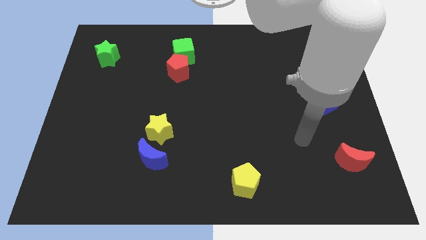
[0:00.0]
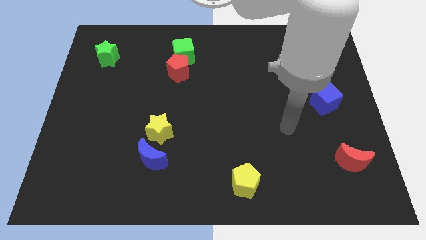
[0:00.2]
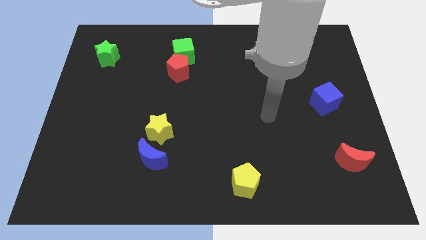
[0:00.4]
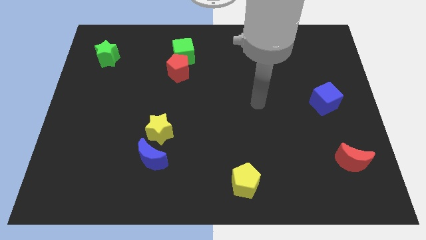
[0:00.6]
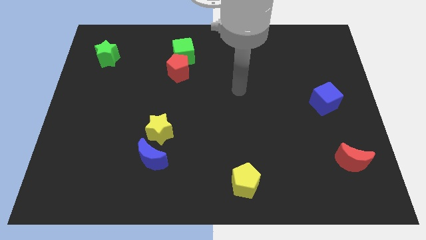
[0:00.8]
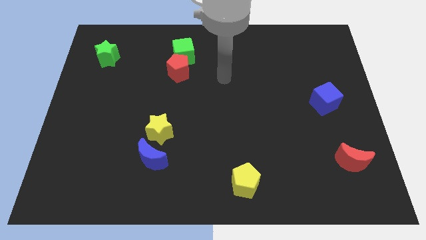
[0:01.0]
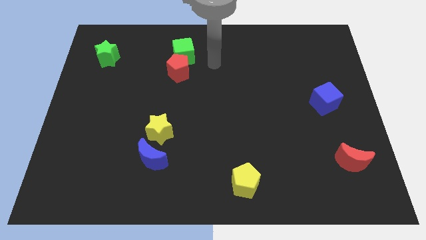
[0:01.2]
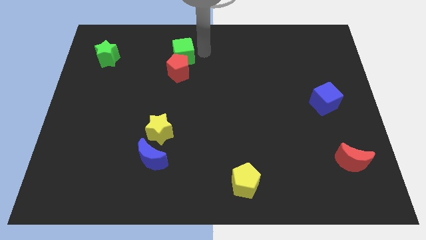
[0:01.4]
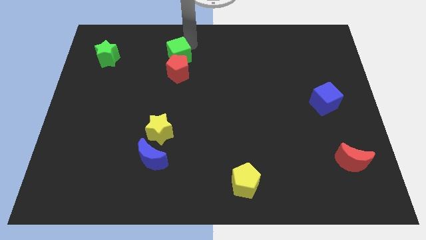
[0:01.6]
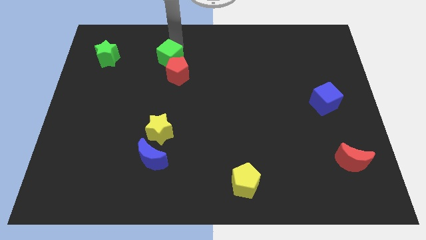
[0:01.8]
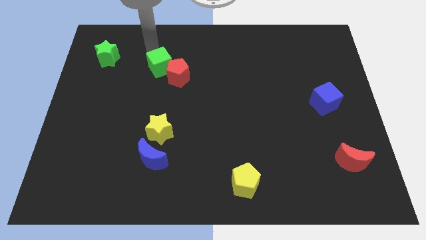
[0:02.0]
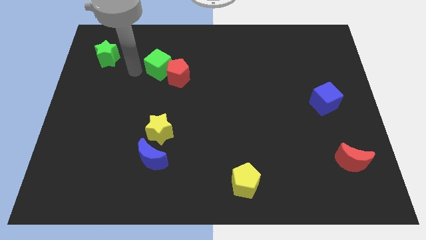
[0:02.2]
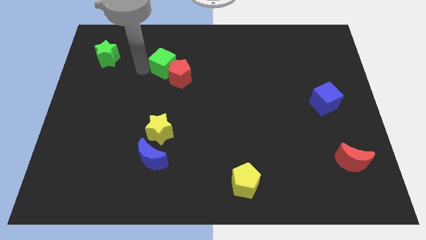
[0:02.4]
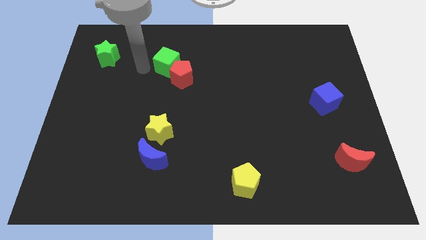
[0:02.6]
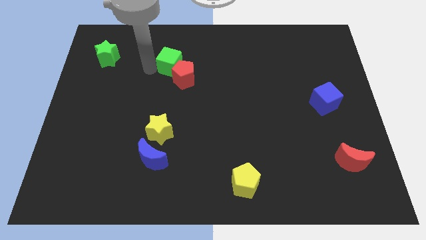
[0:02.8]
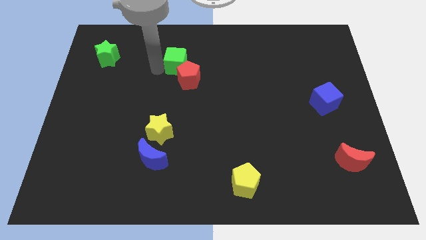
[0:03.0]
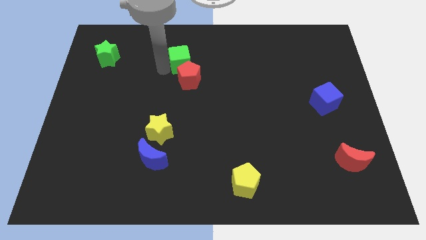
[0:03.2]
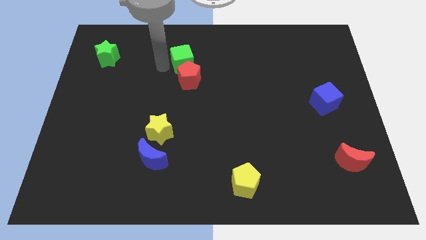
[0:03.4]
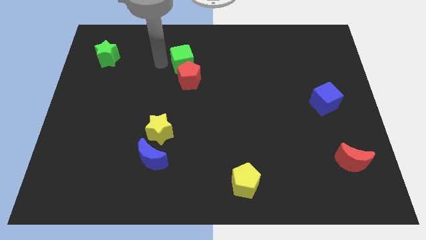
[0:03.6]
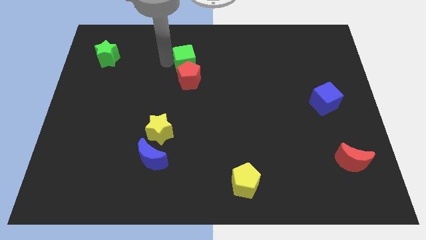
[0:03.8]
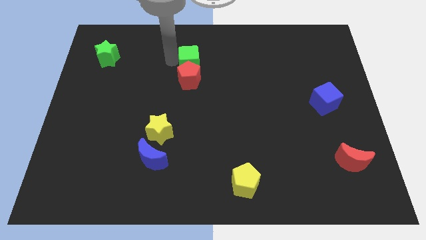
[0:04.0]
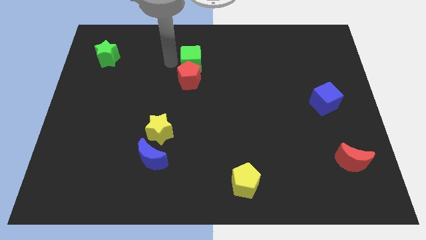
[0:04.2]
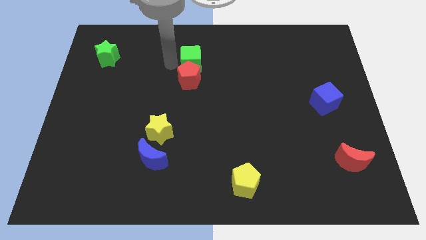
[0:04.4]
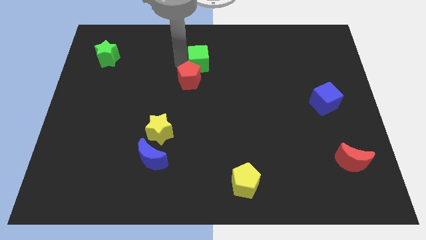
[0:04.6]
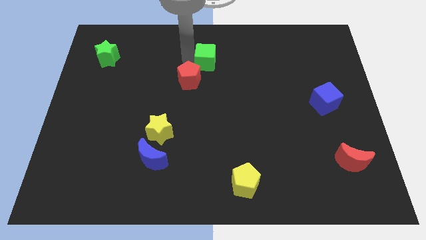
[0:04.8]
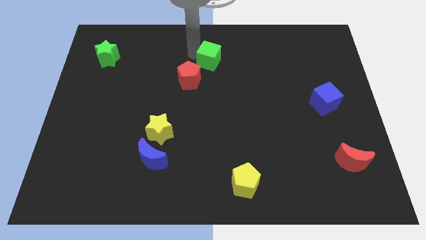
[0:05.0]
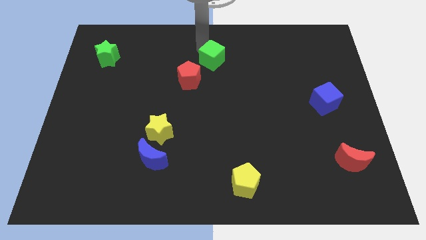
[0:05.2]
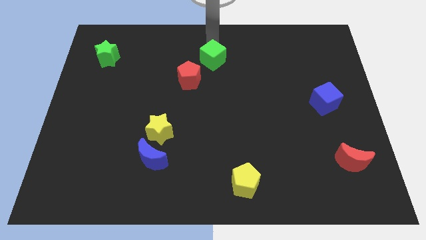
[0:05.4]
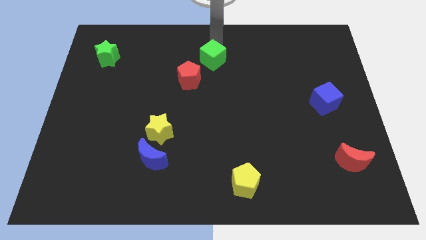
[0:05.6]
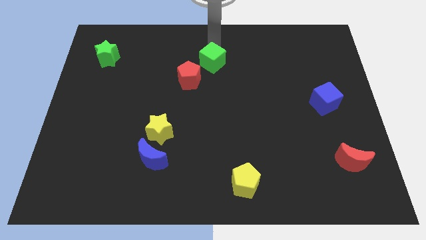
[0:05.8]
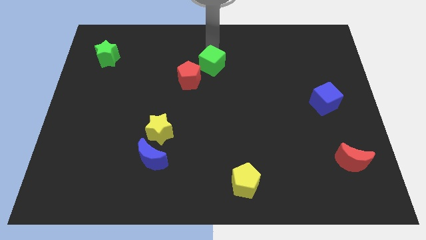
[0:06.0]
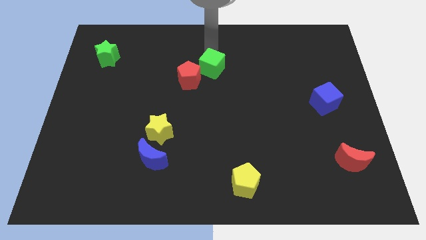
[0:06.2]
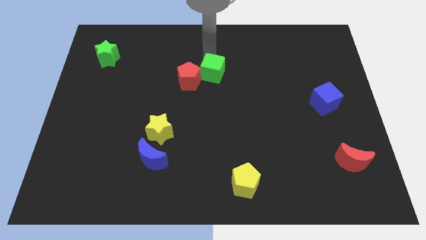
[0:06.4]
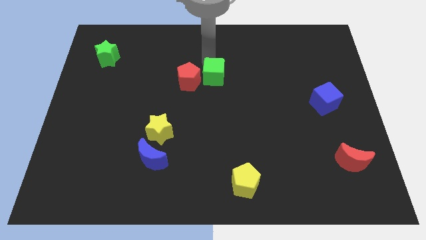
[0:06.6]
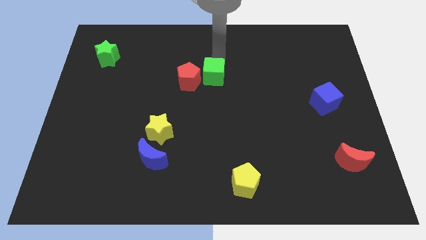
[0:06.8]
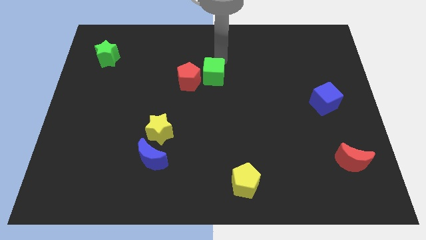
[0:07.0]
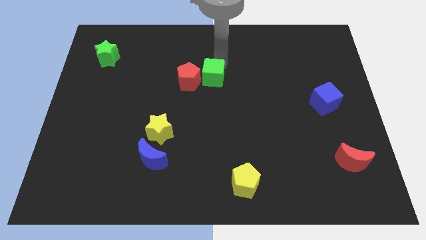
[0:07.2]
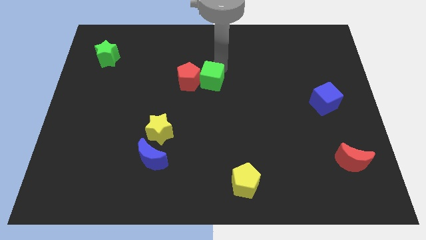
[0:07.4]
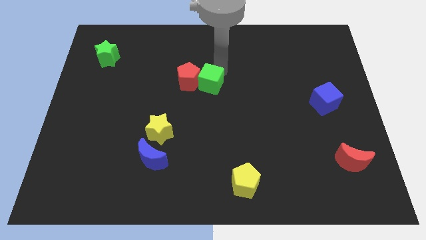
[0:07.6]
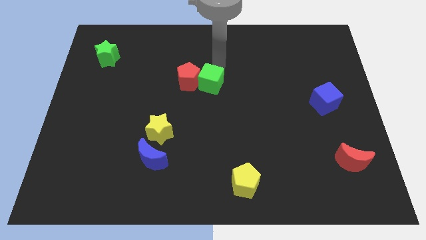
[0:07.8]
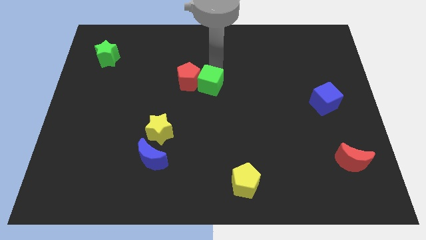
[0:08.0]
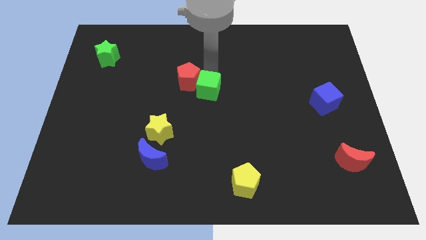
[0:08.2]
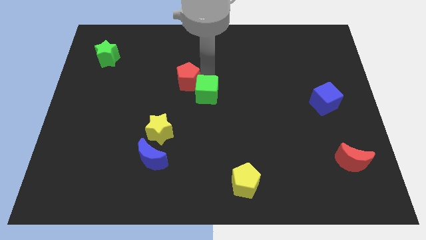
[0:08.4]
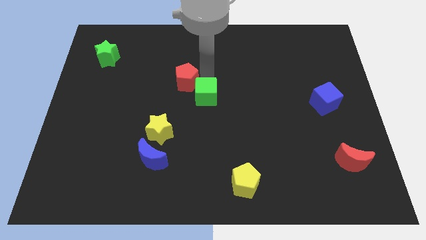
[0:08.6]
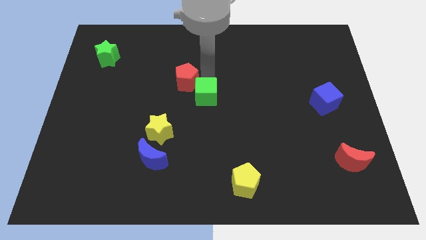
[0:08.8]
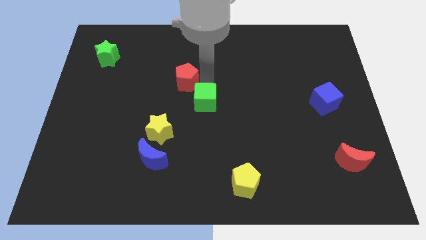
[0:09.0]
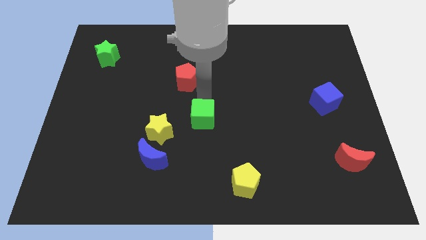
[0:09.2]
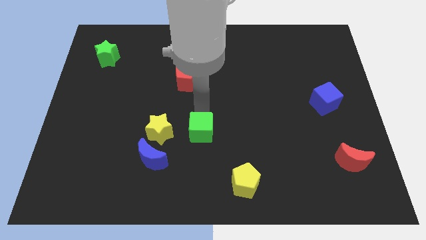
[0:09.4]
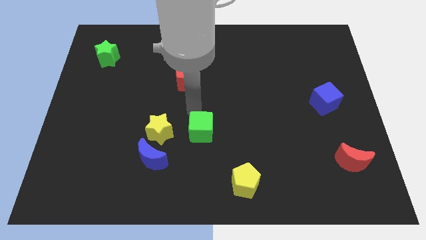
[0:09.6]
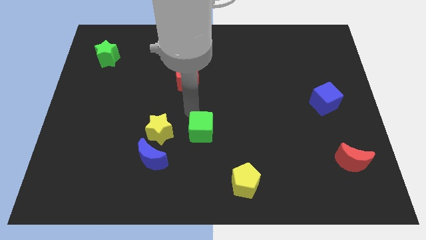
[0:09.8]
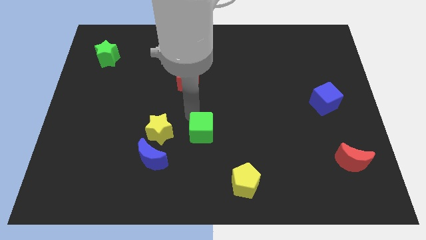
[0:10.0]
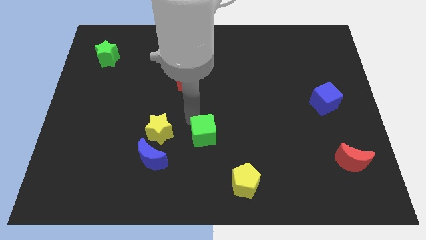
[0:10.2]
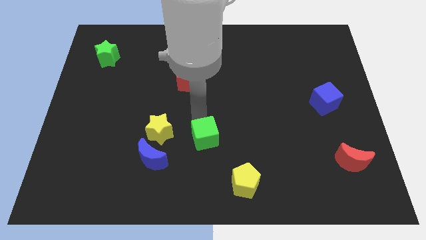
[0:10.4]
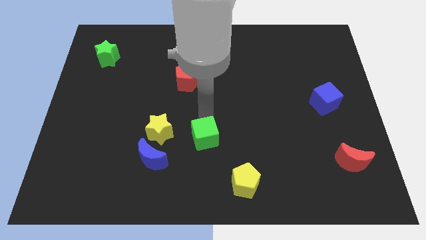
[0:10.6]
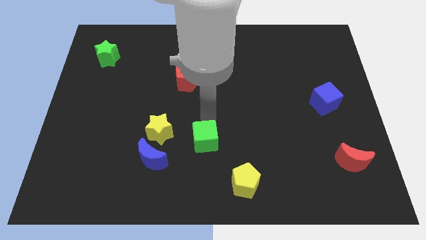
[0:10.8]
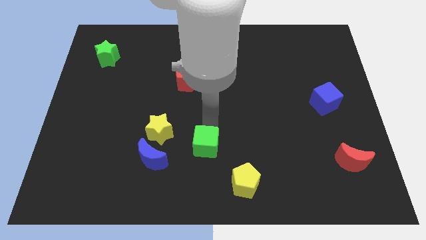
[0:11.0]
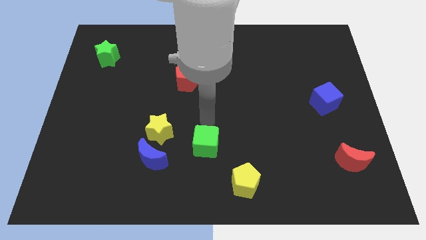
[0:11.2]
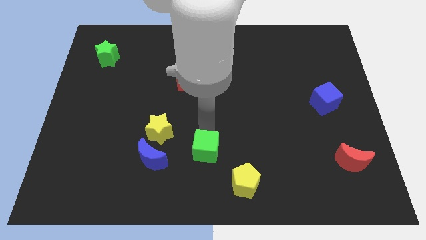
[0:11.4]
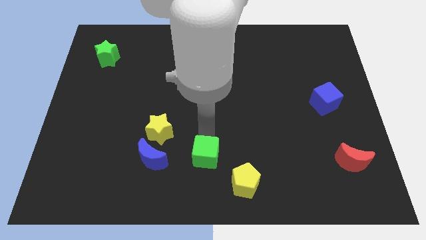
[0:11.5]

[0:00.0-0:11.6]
push the green cube to the bottom

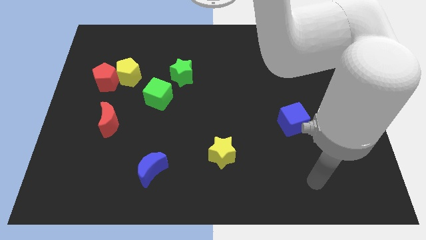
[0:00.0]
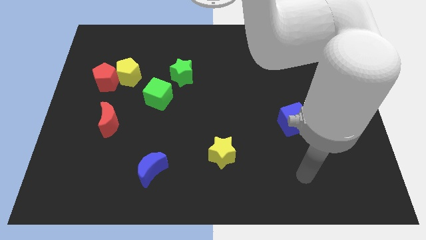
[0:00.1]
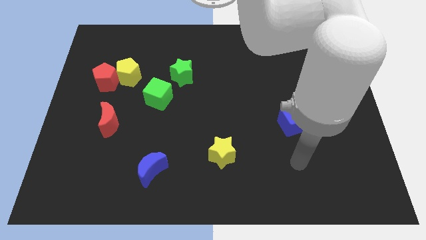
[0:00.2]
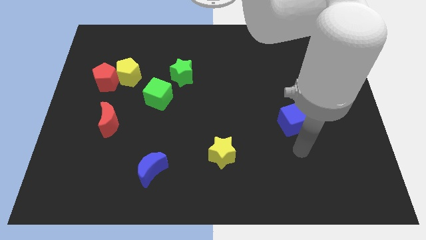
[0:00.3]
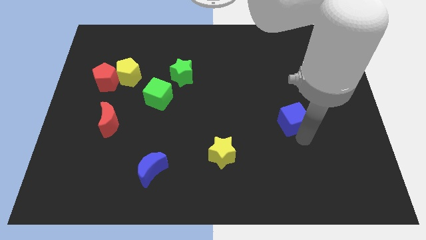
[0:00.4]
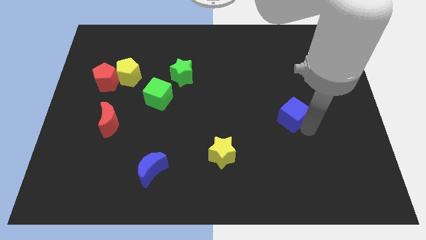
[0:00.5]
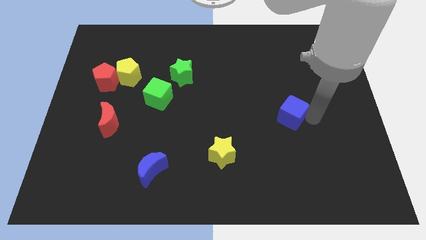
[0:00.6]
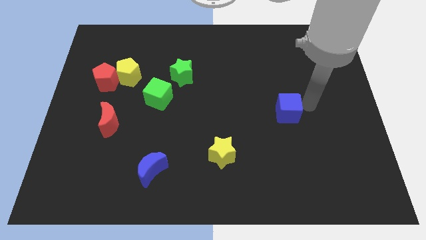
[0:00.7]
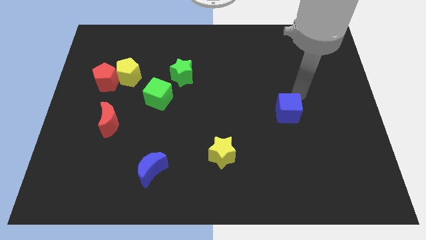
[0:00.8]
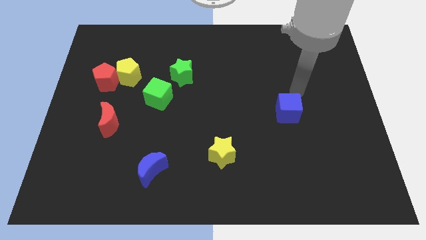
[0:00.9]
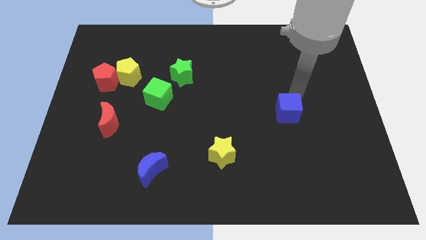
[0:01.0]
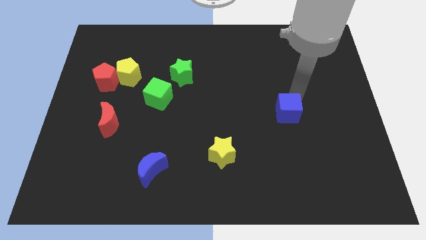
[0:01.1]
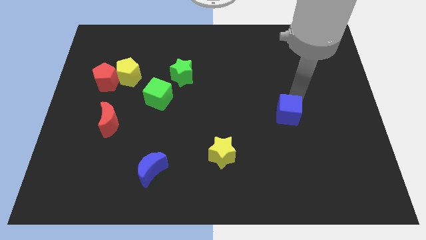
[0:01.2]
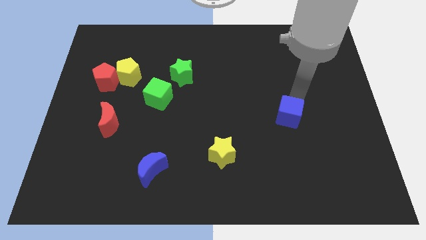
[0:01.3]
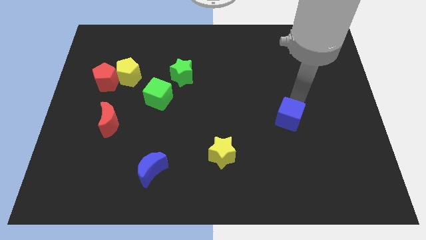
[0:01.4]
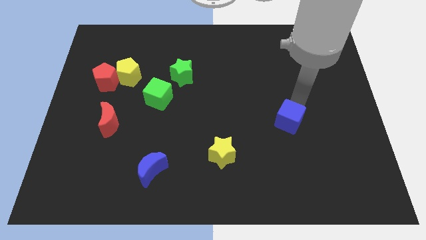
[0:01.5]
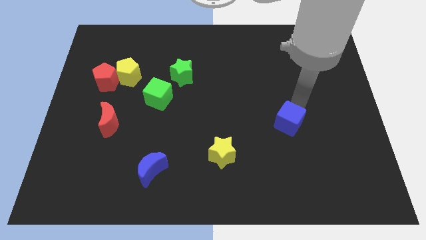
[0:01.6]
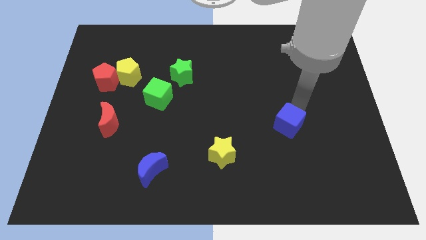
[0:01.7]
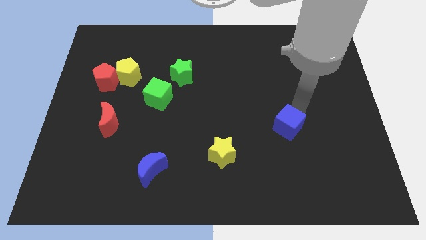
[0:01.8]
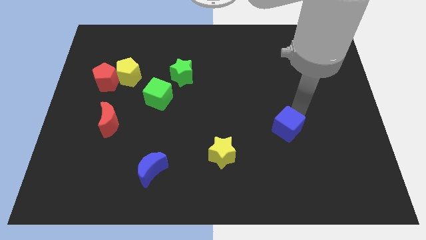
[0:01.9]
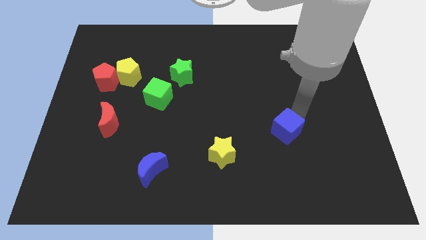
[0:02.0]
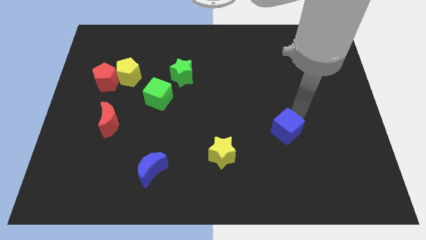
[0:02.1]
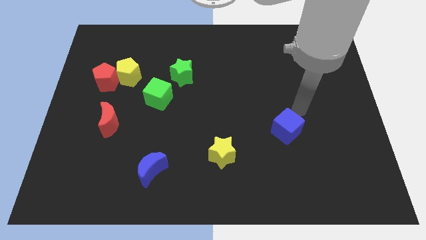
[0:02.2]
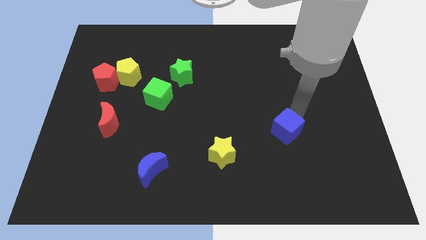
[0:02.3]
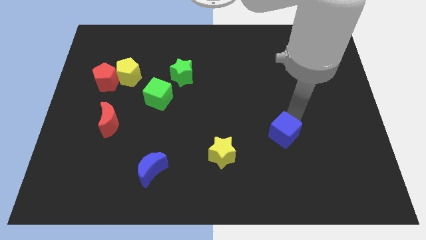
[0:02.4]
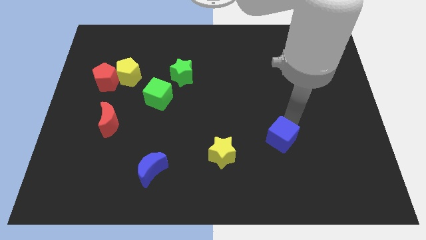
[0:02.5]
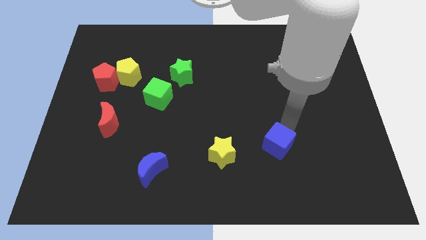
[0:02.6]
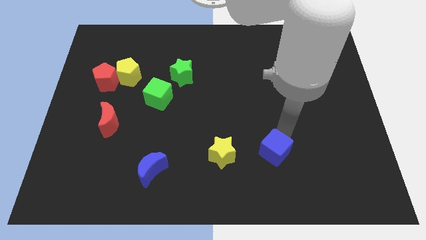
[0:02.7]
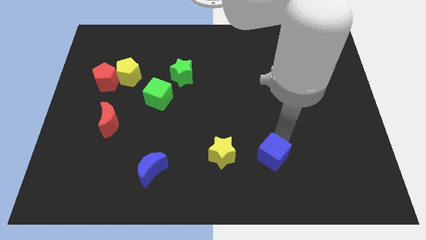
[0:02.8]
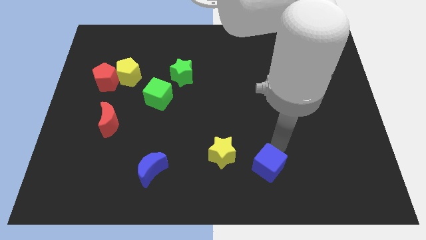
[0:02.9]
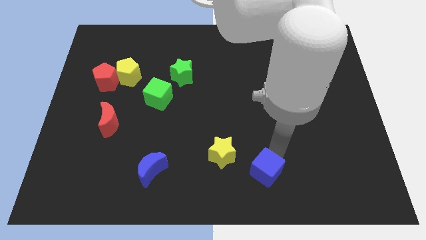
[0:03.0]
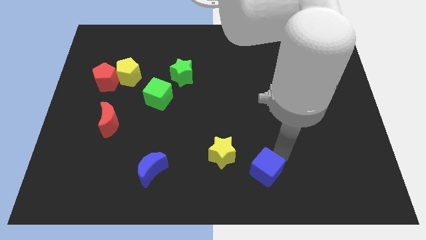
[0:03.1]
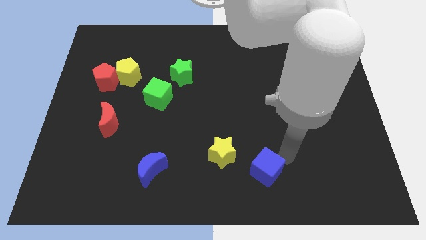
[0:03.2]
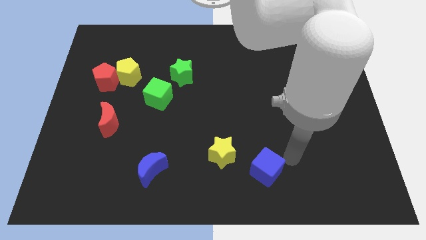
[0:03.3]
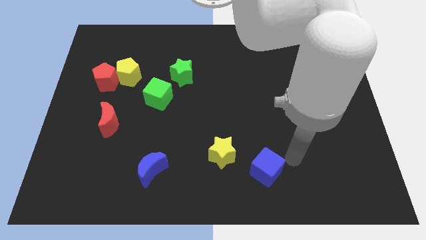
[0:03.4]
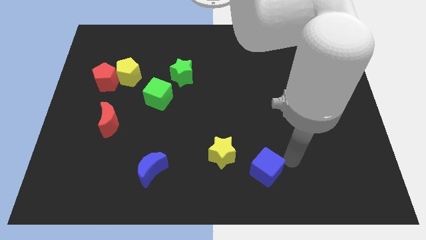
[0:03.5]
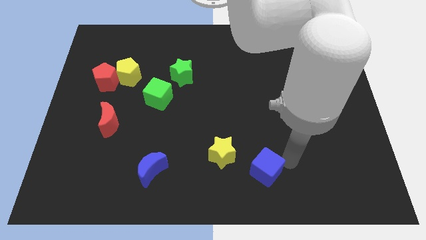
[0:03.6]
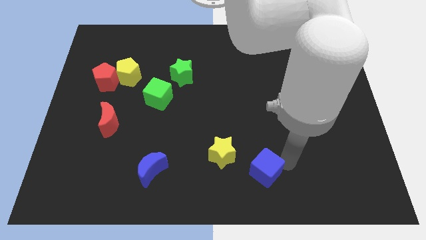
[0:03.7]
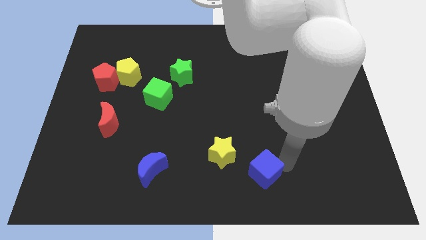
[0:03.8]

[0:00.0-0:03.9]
put the blue cube to the bottom side
